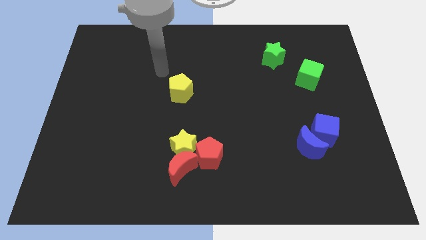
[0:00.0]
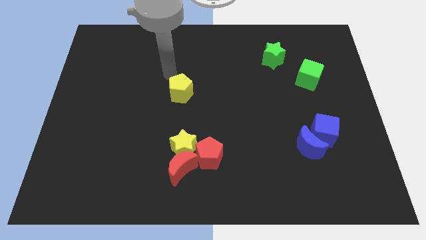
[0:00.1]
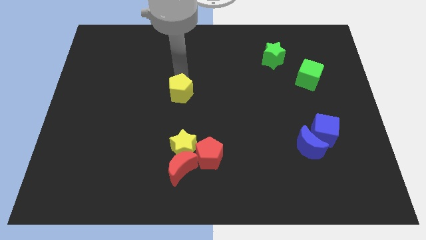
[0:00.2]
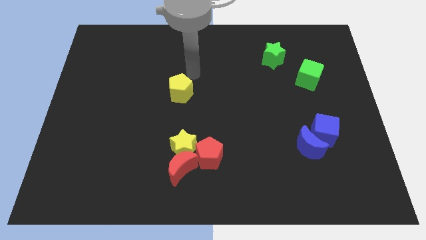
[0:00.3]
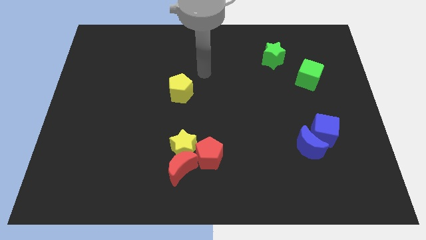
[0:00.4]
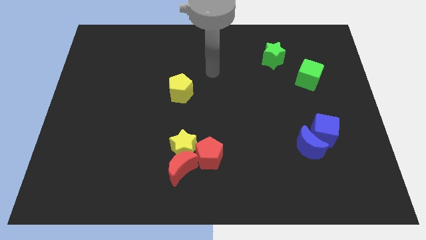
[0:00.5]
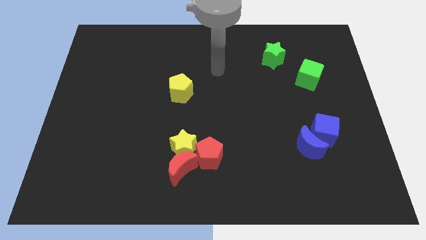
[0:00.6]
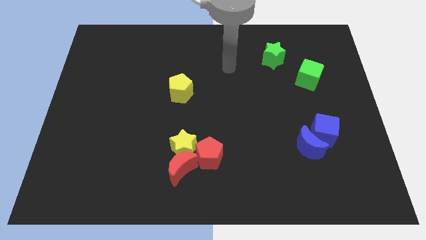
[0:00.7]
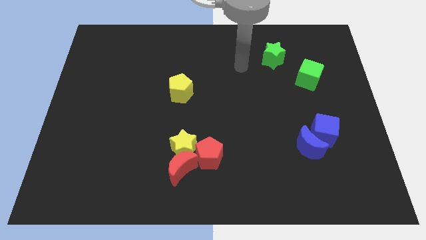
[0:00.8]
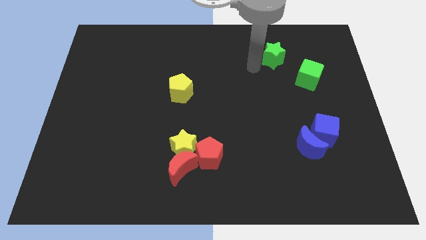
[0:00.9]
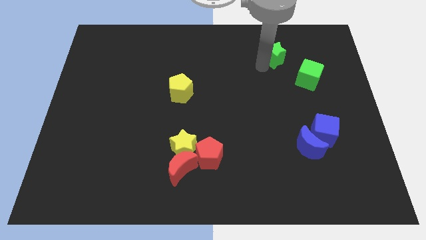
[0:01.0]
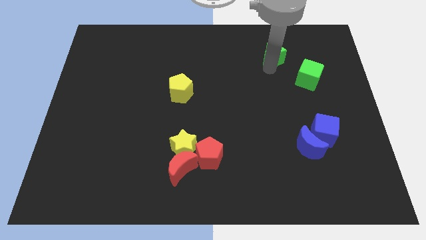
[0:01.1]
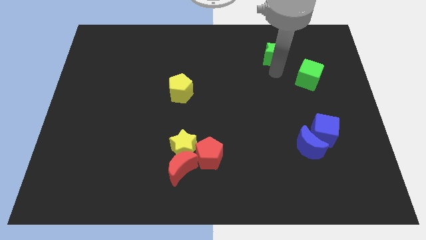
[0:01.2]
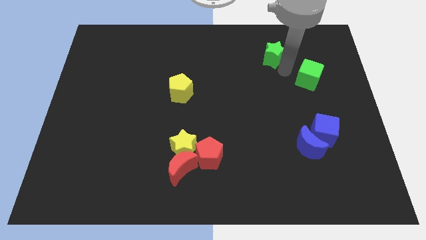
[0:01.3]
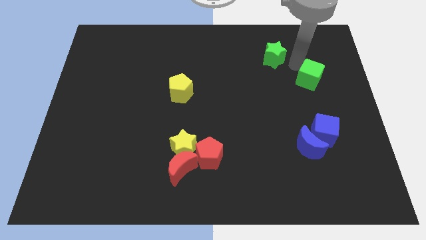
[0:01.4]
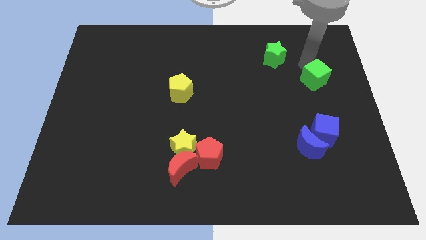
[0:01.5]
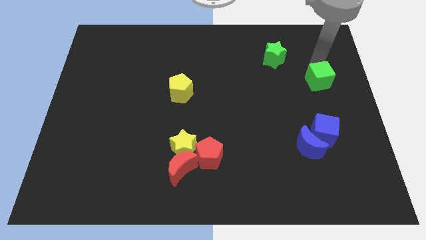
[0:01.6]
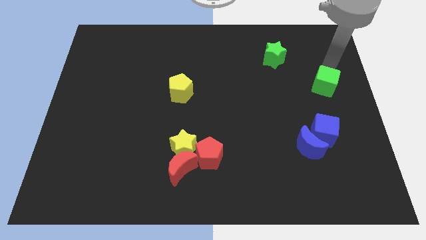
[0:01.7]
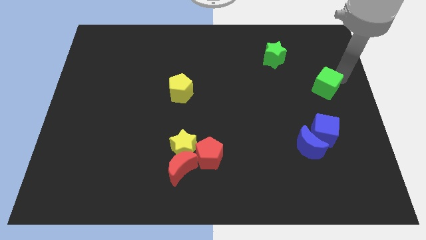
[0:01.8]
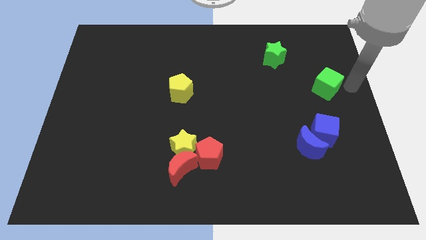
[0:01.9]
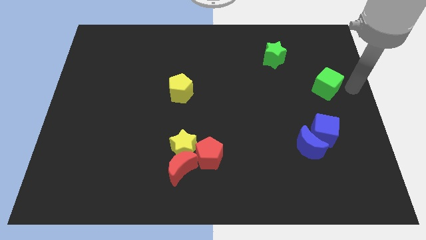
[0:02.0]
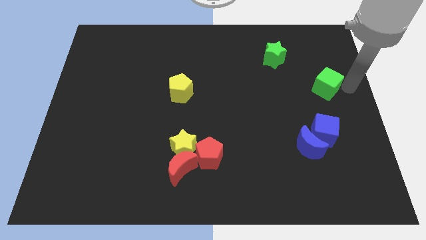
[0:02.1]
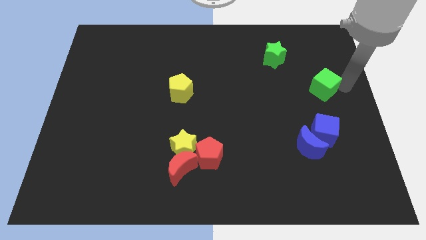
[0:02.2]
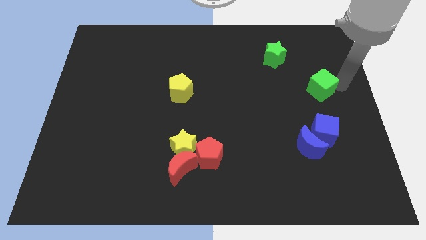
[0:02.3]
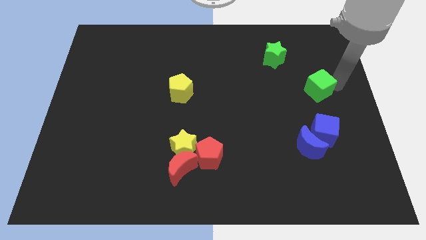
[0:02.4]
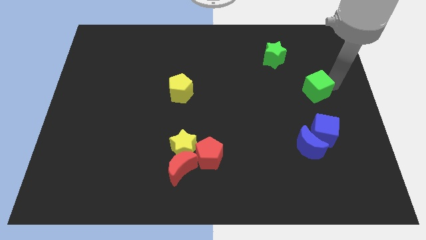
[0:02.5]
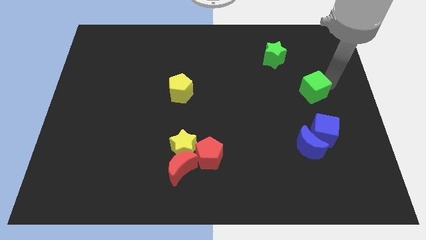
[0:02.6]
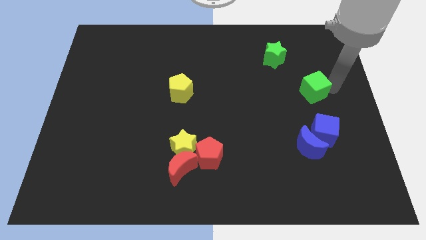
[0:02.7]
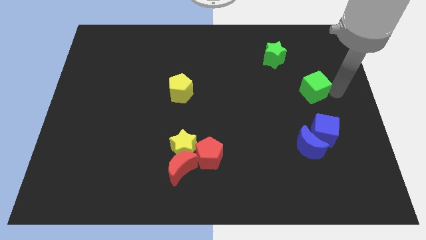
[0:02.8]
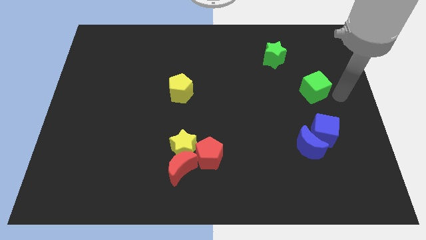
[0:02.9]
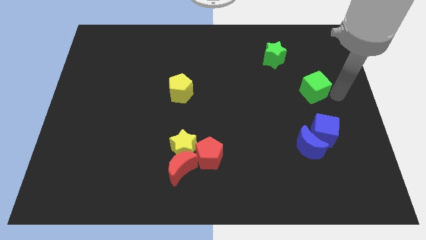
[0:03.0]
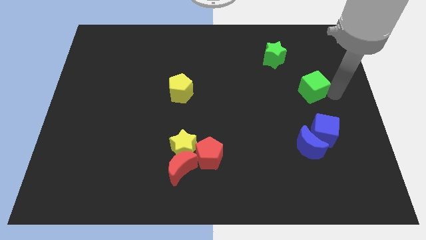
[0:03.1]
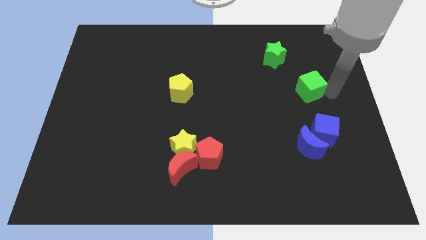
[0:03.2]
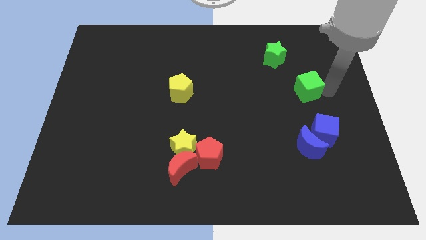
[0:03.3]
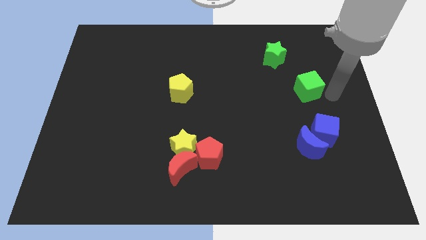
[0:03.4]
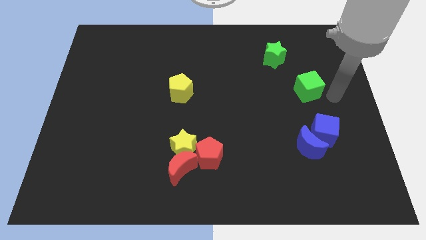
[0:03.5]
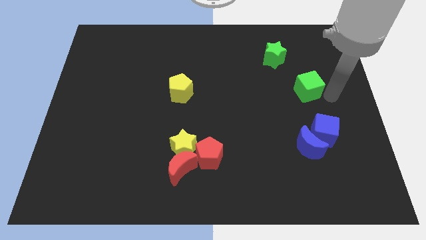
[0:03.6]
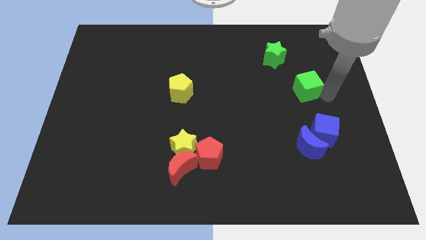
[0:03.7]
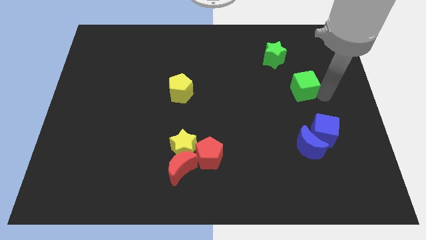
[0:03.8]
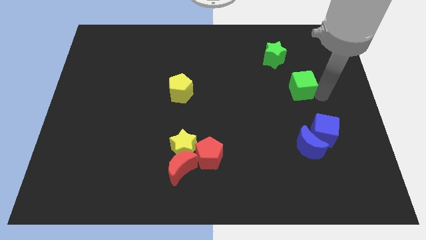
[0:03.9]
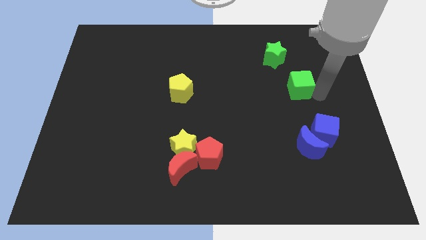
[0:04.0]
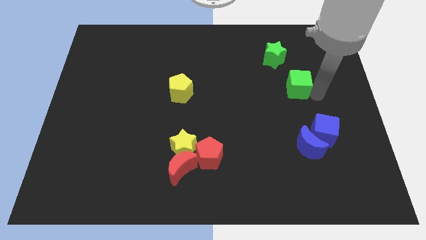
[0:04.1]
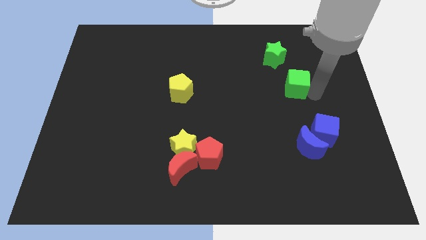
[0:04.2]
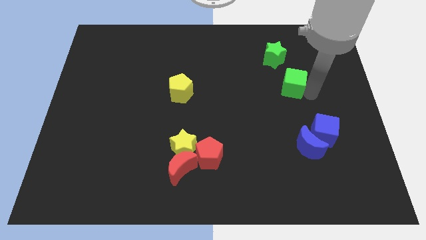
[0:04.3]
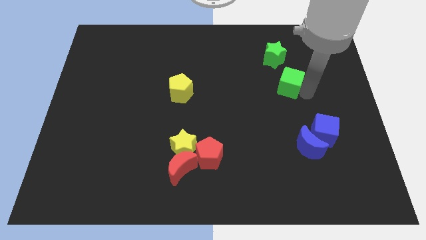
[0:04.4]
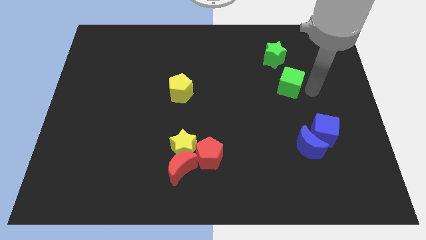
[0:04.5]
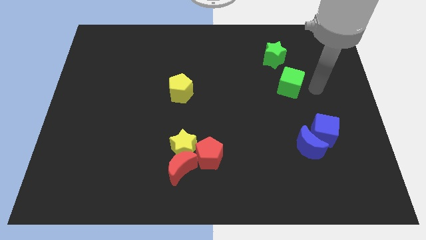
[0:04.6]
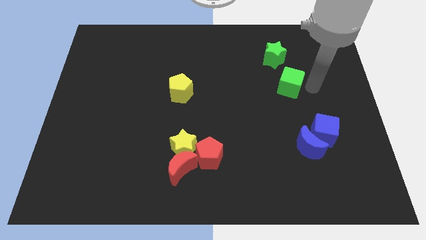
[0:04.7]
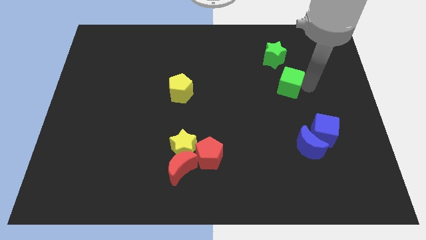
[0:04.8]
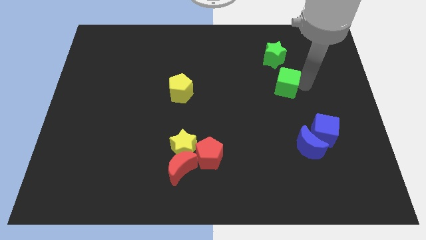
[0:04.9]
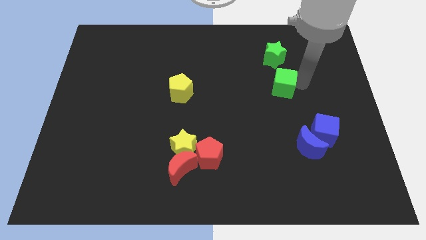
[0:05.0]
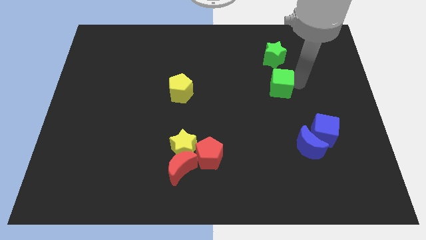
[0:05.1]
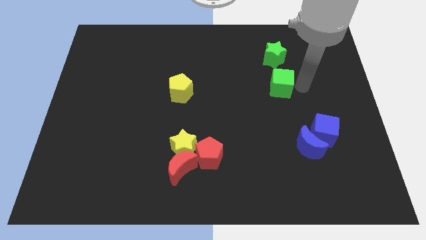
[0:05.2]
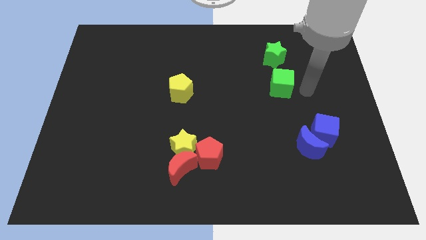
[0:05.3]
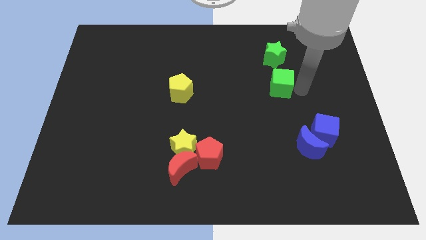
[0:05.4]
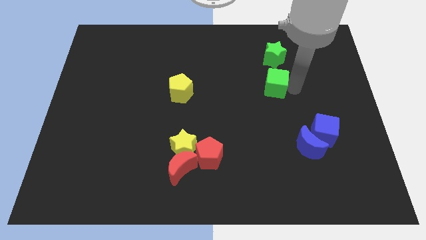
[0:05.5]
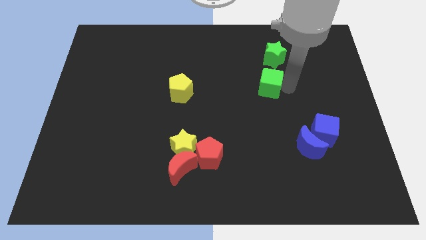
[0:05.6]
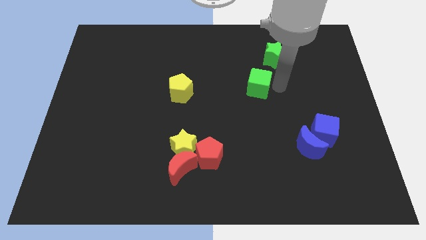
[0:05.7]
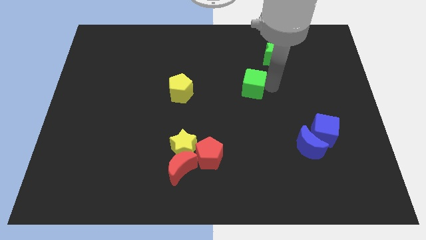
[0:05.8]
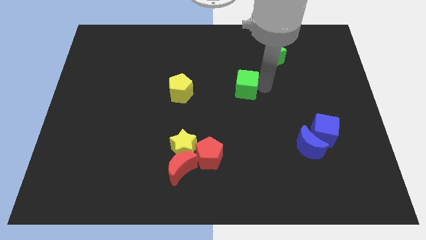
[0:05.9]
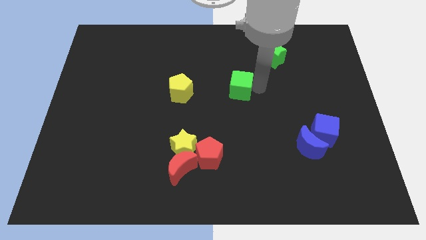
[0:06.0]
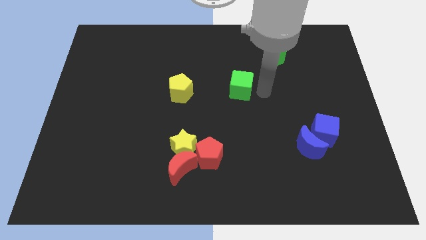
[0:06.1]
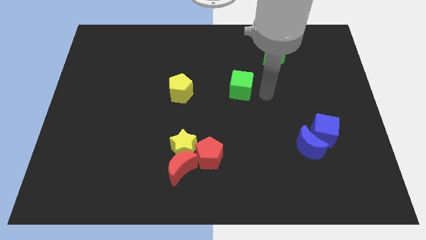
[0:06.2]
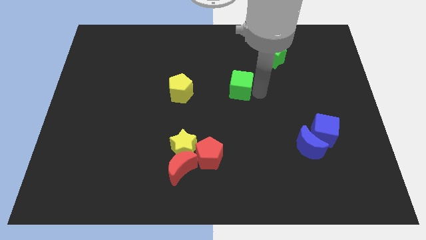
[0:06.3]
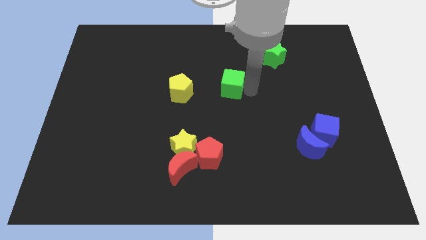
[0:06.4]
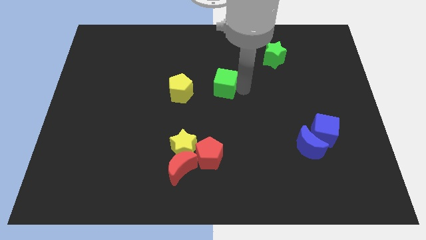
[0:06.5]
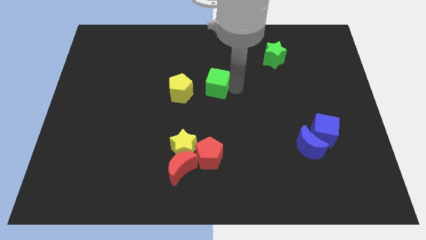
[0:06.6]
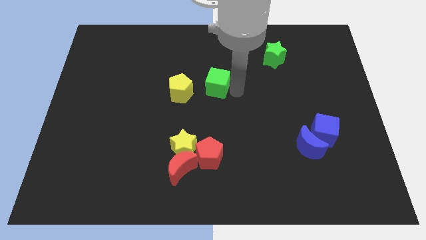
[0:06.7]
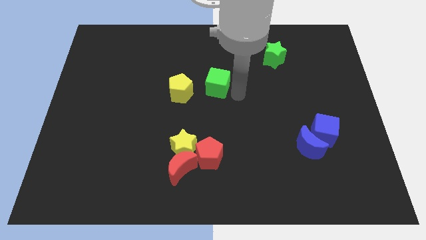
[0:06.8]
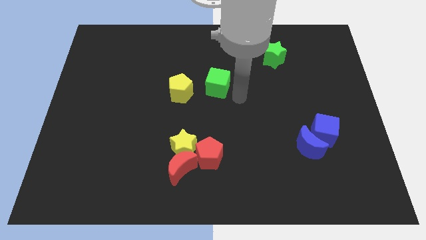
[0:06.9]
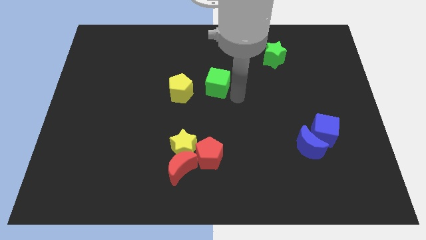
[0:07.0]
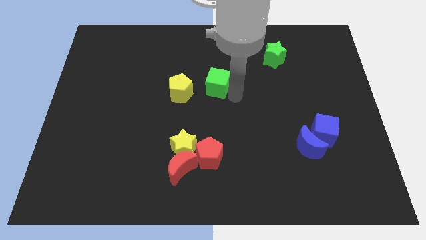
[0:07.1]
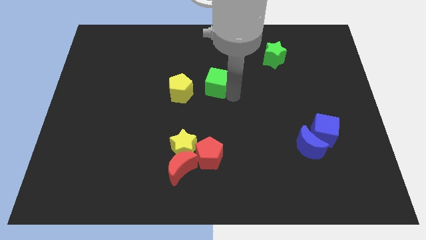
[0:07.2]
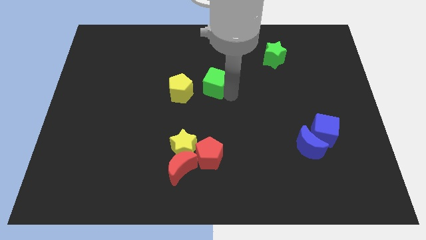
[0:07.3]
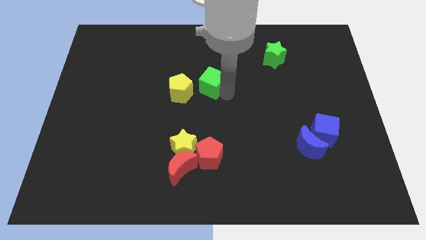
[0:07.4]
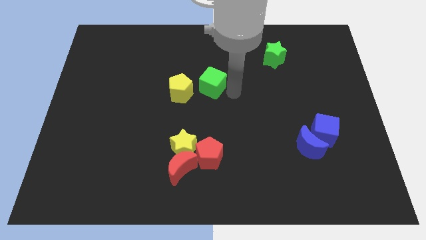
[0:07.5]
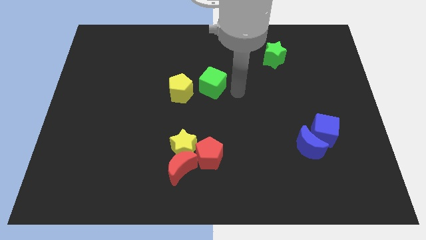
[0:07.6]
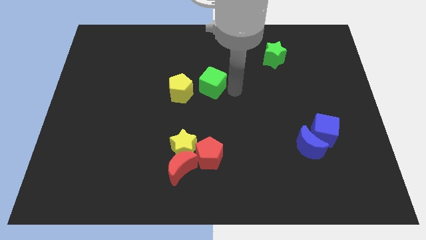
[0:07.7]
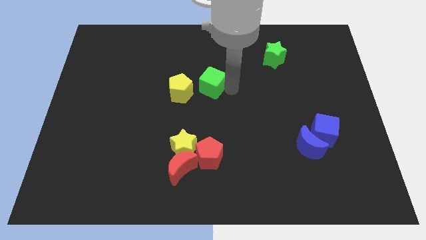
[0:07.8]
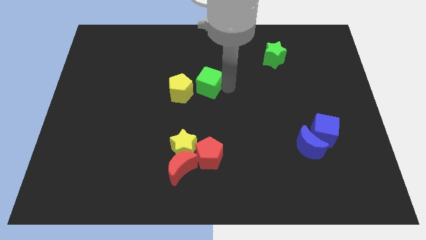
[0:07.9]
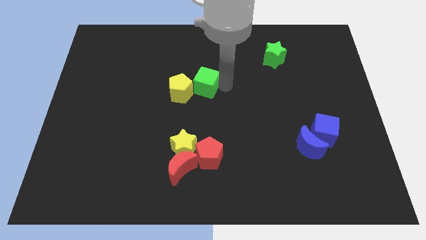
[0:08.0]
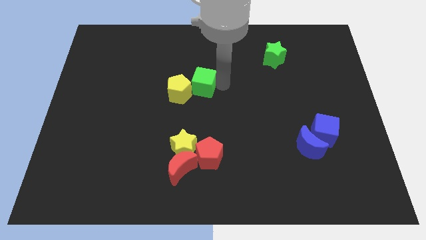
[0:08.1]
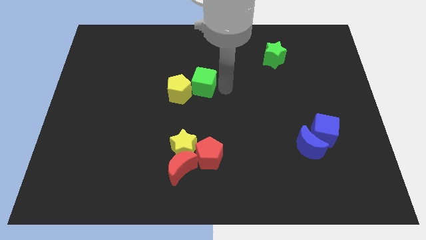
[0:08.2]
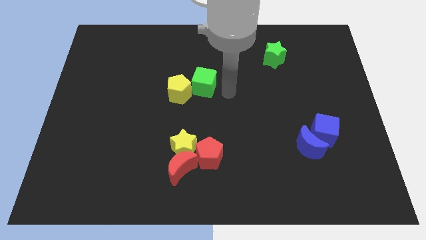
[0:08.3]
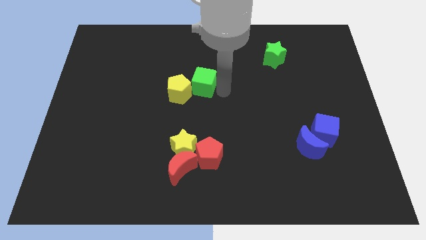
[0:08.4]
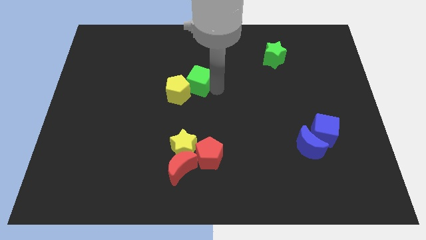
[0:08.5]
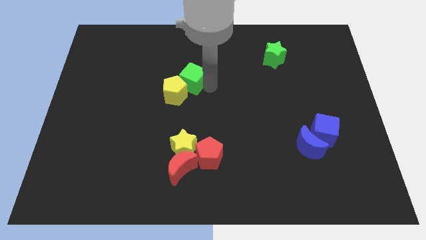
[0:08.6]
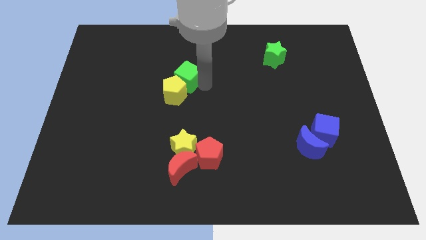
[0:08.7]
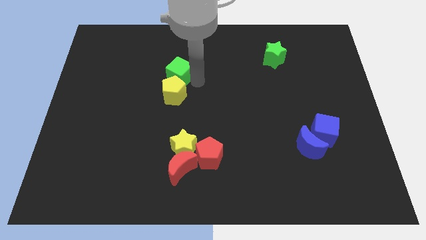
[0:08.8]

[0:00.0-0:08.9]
move the green cube to the top left side of the yellow pentagon
